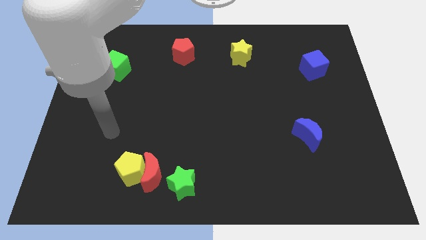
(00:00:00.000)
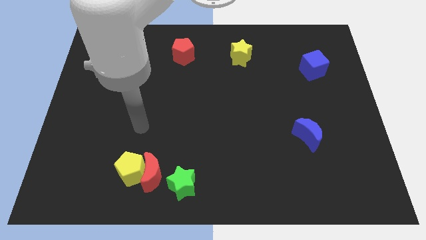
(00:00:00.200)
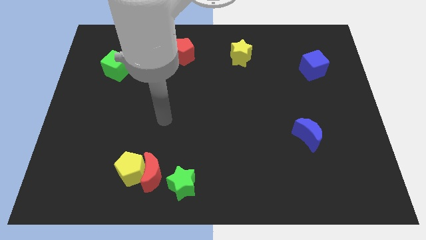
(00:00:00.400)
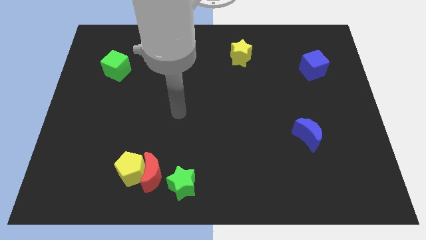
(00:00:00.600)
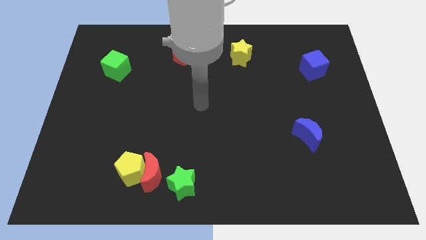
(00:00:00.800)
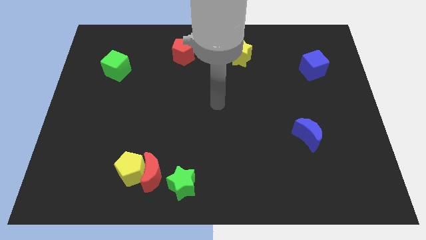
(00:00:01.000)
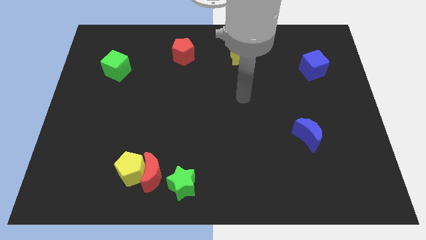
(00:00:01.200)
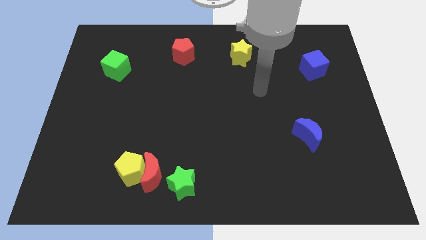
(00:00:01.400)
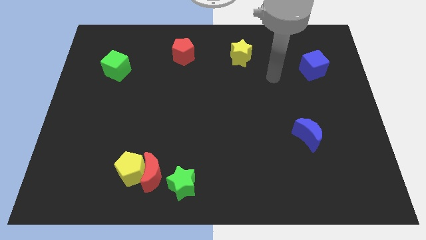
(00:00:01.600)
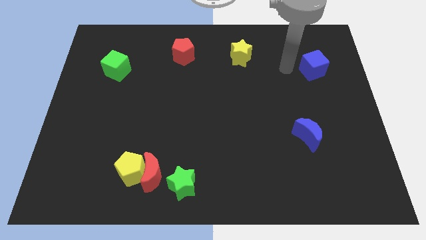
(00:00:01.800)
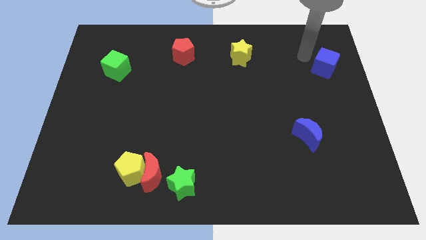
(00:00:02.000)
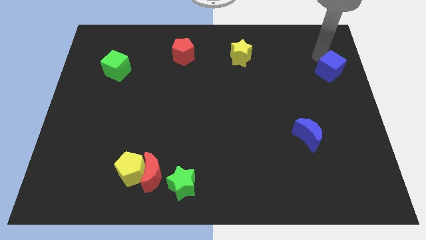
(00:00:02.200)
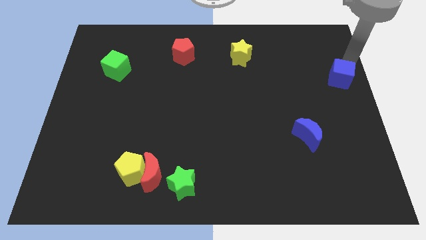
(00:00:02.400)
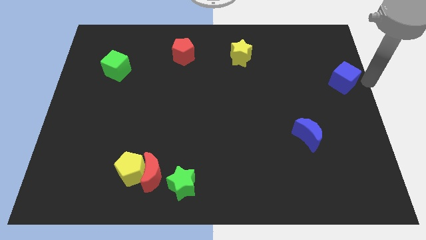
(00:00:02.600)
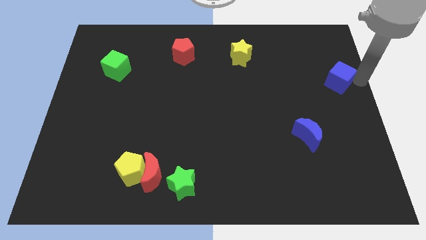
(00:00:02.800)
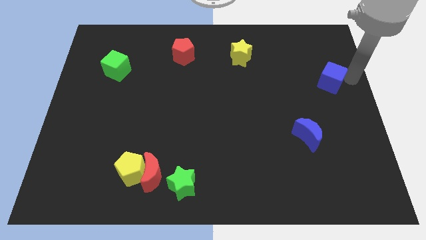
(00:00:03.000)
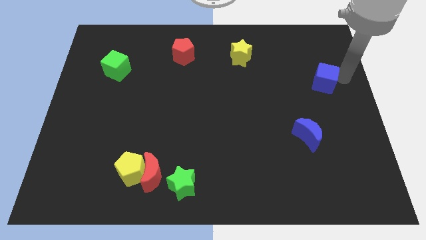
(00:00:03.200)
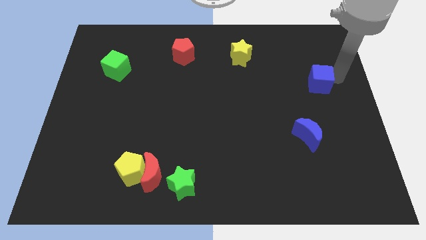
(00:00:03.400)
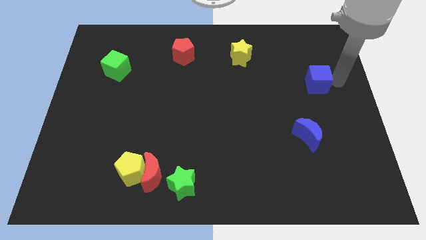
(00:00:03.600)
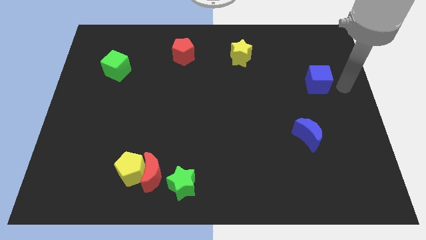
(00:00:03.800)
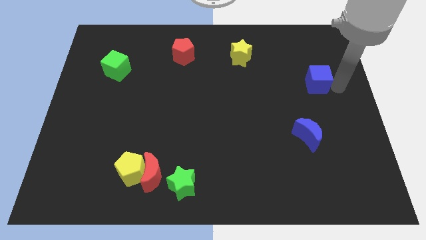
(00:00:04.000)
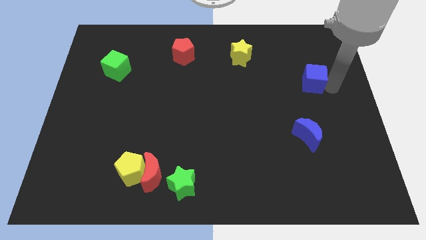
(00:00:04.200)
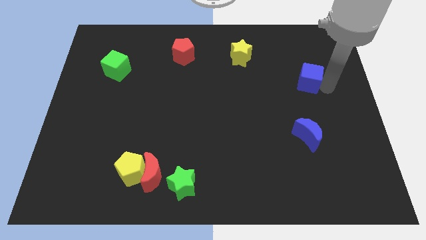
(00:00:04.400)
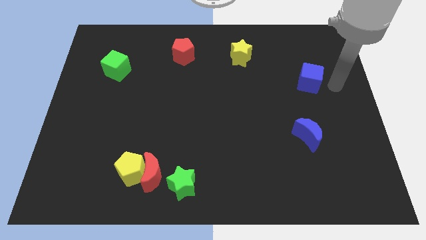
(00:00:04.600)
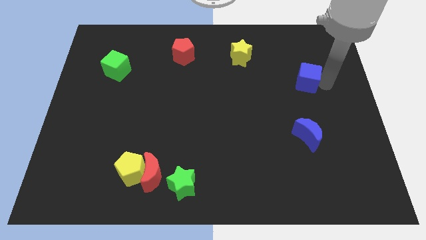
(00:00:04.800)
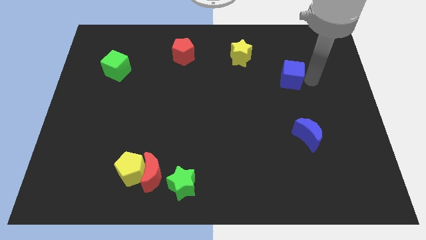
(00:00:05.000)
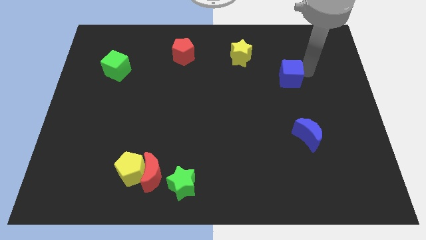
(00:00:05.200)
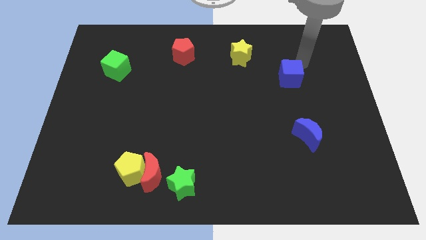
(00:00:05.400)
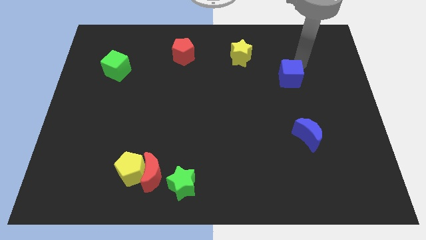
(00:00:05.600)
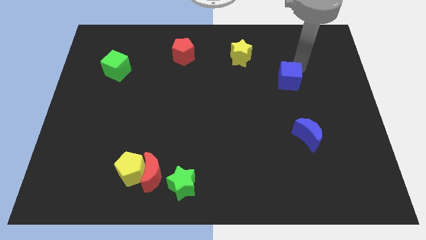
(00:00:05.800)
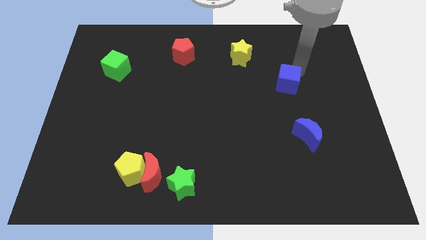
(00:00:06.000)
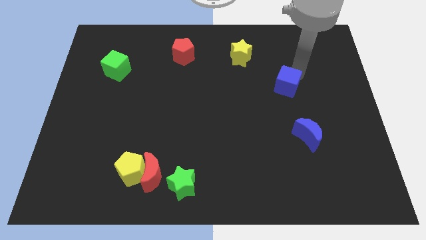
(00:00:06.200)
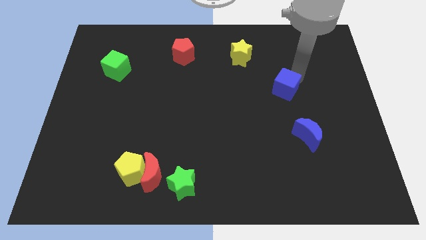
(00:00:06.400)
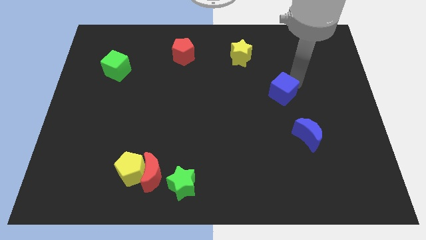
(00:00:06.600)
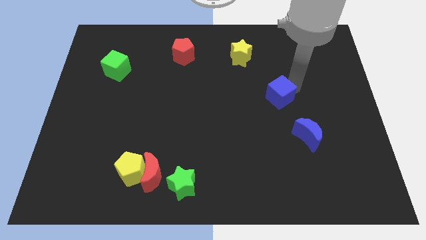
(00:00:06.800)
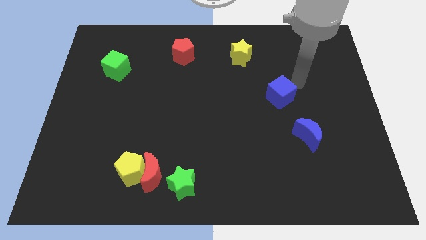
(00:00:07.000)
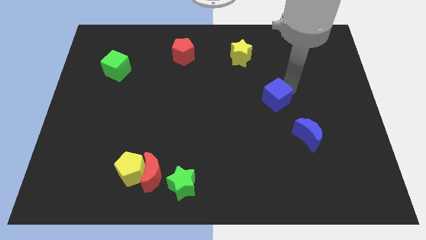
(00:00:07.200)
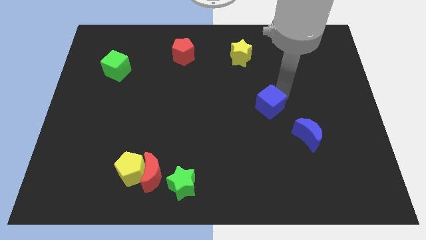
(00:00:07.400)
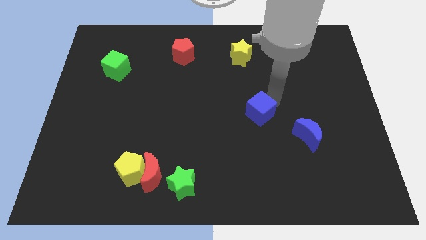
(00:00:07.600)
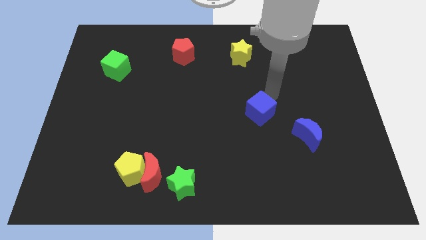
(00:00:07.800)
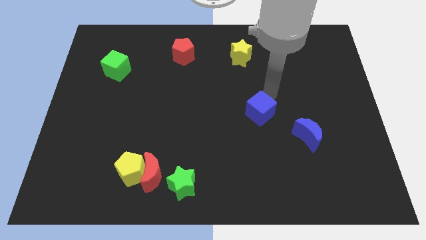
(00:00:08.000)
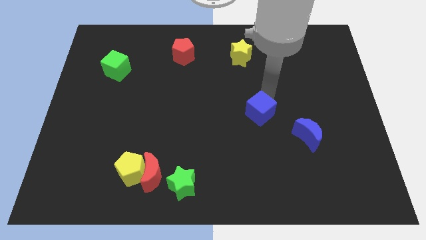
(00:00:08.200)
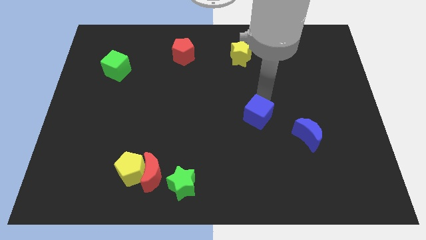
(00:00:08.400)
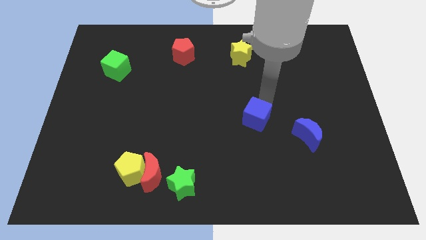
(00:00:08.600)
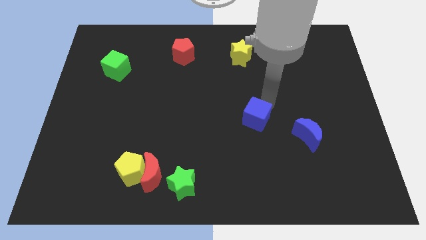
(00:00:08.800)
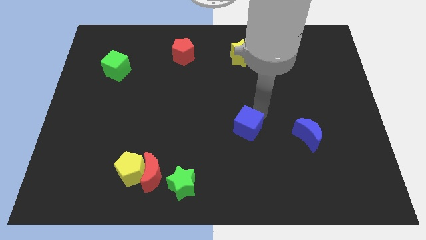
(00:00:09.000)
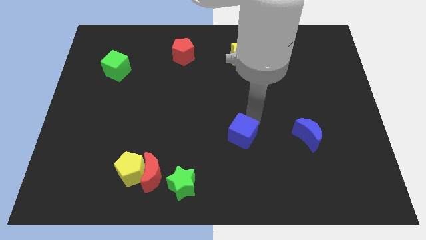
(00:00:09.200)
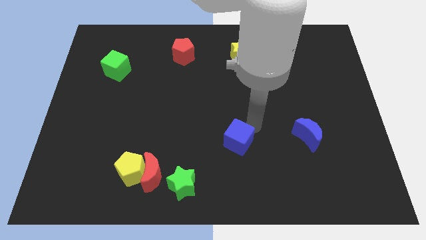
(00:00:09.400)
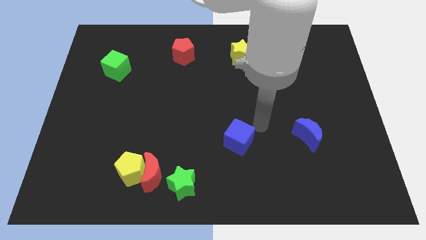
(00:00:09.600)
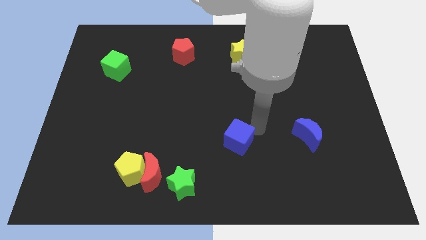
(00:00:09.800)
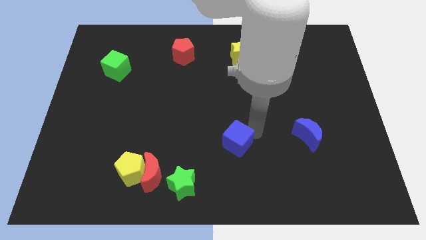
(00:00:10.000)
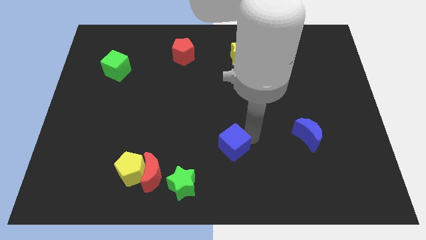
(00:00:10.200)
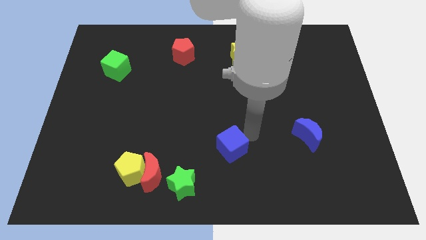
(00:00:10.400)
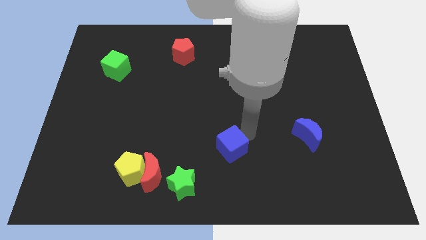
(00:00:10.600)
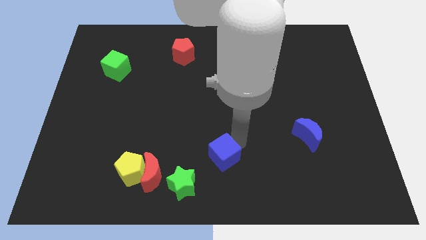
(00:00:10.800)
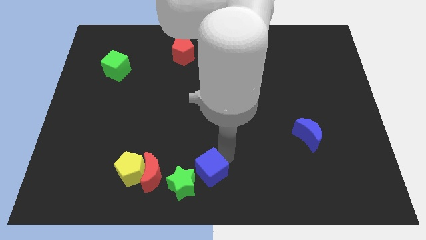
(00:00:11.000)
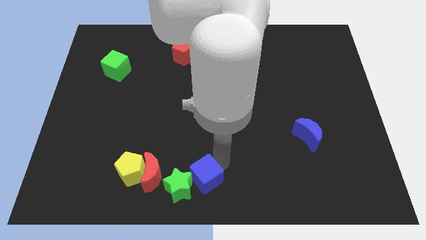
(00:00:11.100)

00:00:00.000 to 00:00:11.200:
push the blue cube to the green star

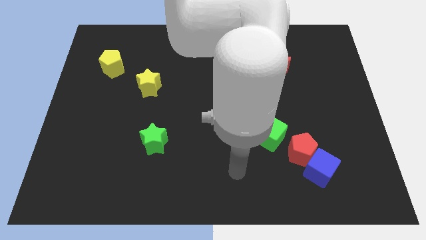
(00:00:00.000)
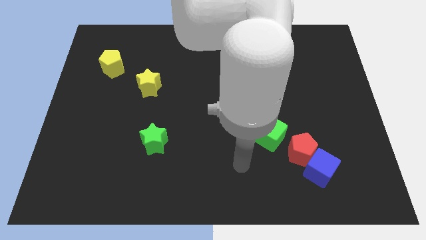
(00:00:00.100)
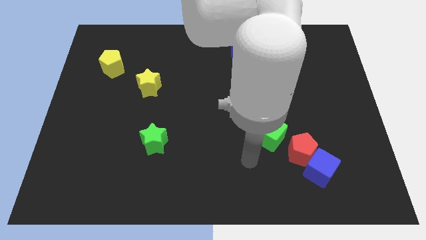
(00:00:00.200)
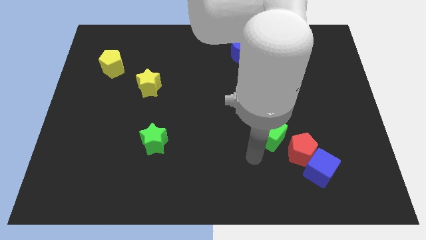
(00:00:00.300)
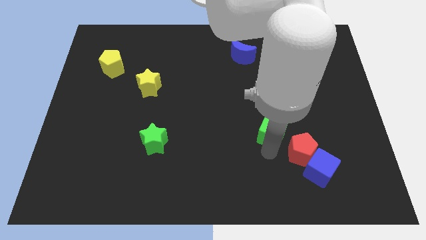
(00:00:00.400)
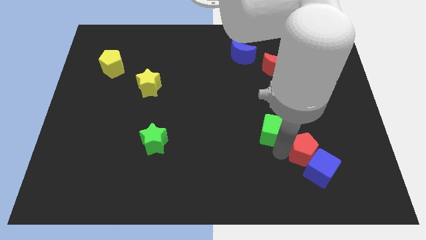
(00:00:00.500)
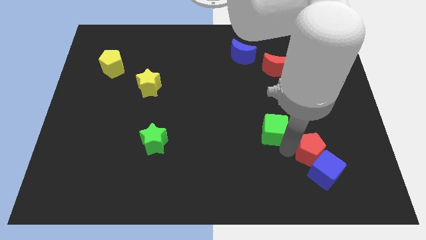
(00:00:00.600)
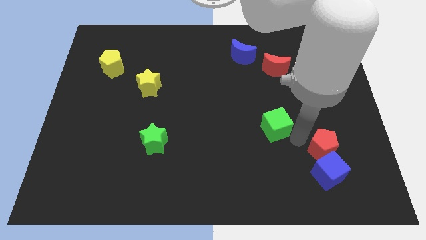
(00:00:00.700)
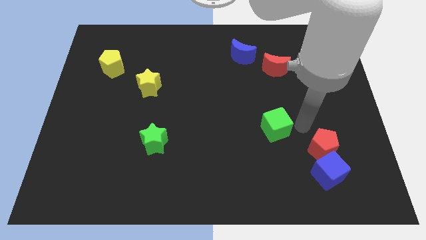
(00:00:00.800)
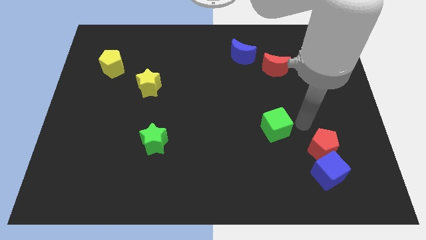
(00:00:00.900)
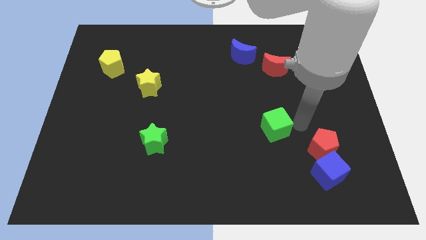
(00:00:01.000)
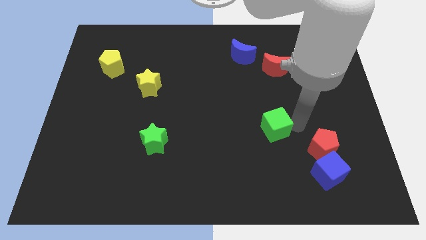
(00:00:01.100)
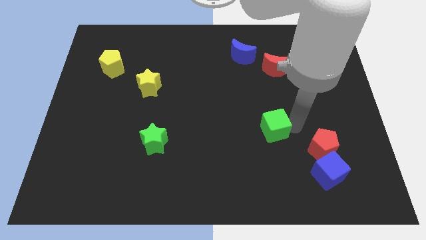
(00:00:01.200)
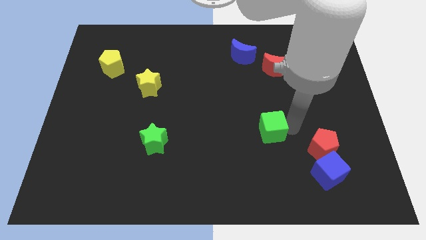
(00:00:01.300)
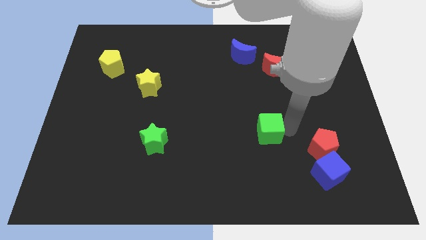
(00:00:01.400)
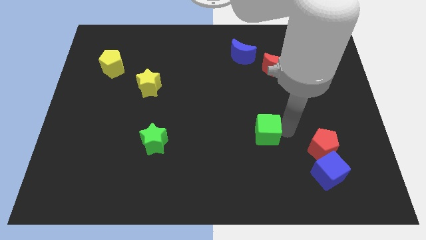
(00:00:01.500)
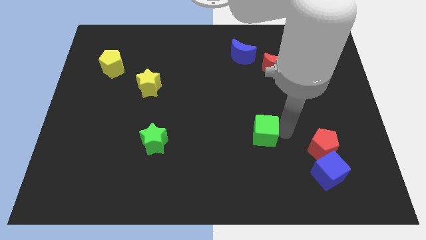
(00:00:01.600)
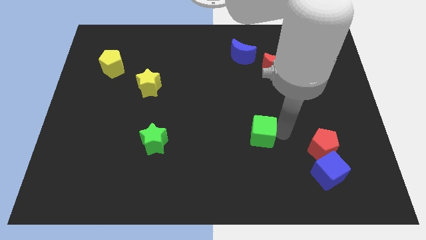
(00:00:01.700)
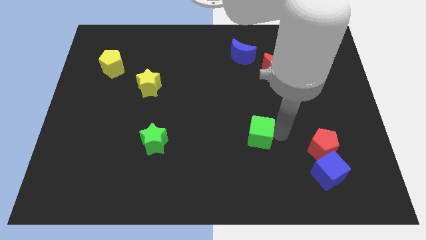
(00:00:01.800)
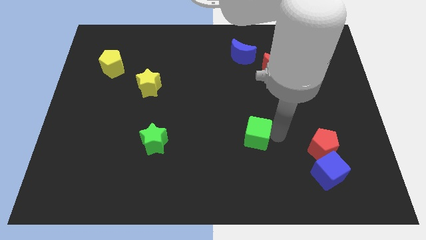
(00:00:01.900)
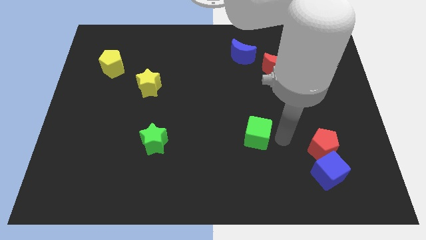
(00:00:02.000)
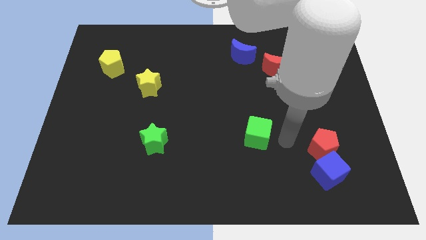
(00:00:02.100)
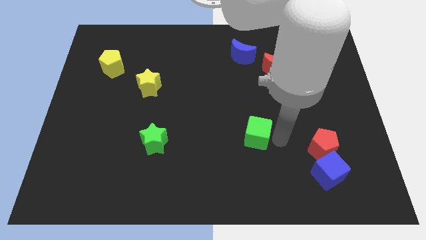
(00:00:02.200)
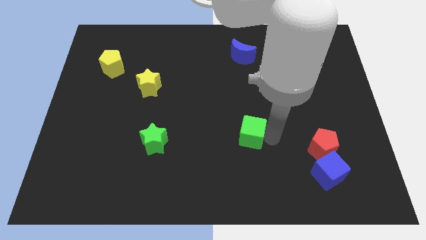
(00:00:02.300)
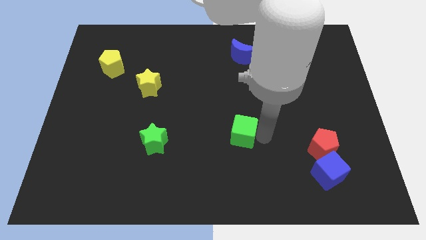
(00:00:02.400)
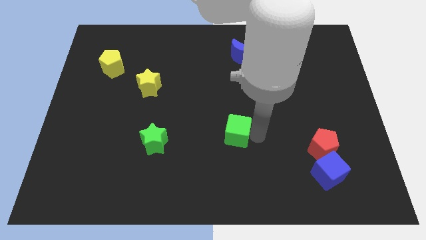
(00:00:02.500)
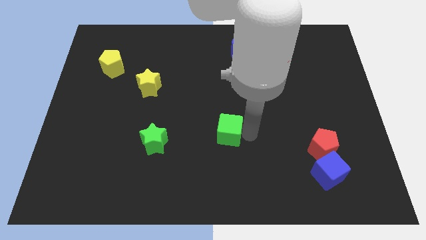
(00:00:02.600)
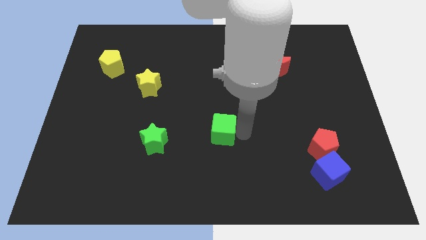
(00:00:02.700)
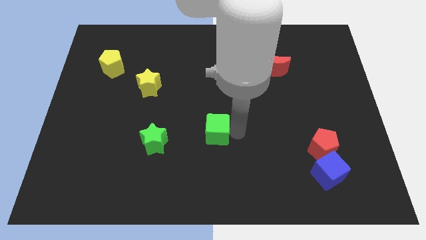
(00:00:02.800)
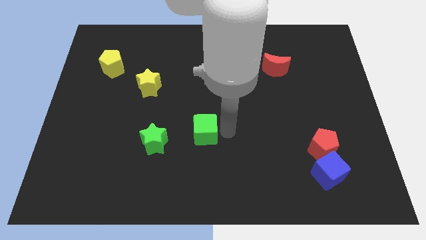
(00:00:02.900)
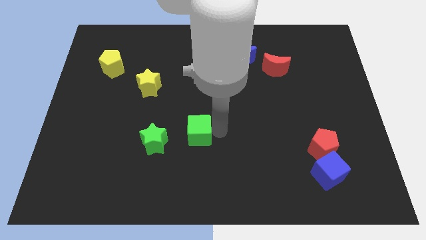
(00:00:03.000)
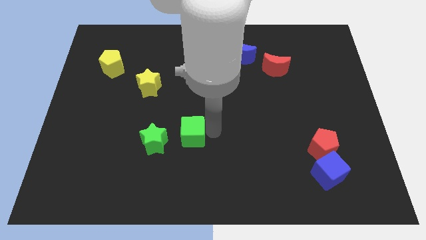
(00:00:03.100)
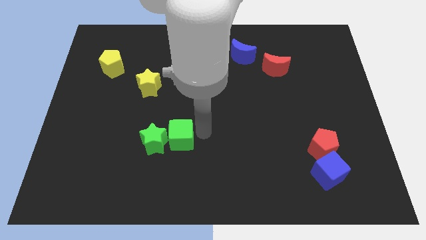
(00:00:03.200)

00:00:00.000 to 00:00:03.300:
put the green cube next to the green star
